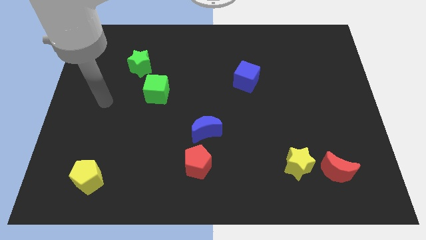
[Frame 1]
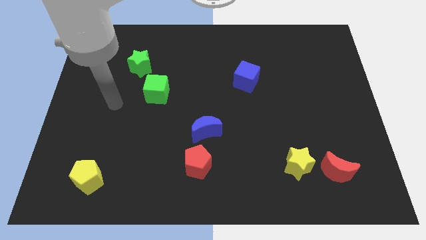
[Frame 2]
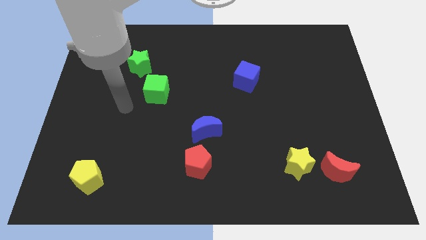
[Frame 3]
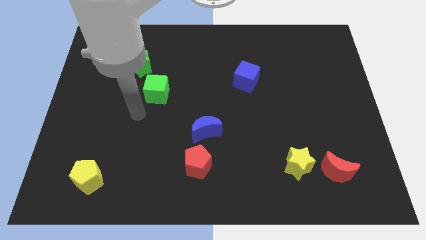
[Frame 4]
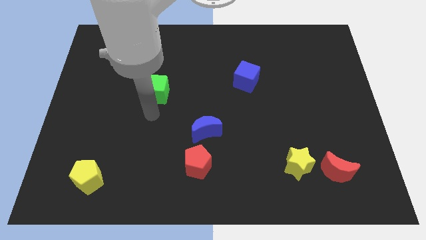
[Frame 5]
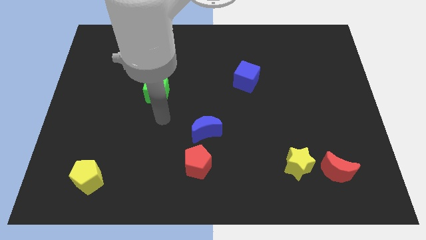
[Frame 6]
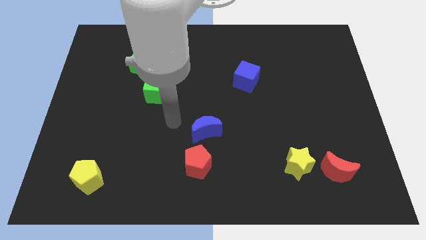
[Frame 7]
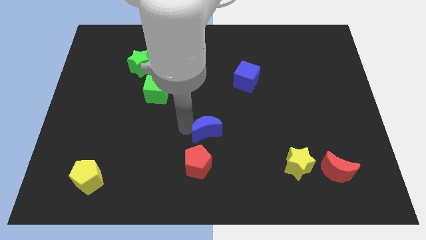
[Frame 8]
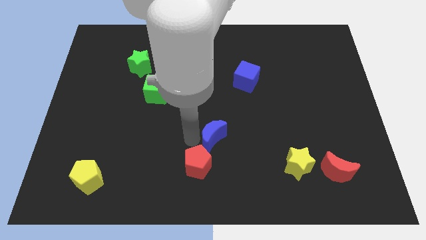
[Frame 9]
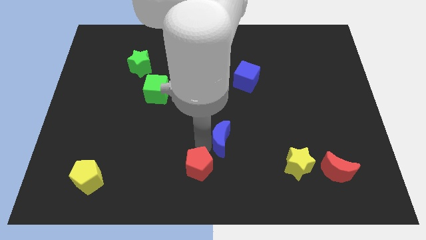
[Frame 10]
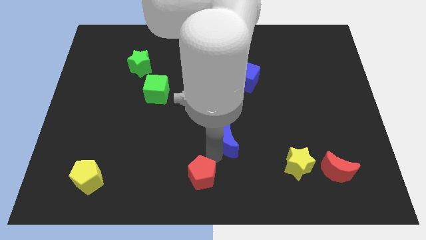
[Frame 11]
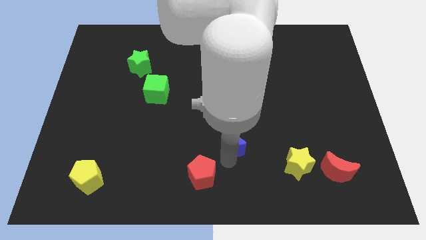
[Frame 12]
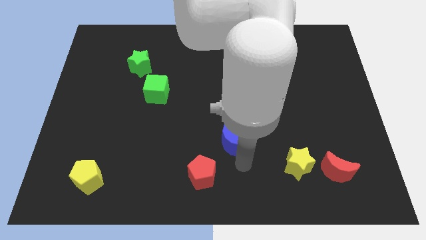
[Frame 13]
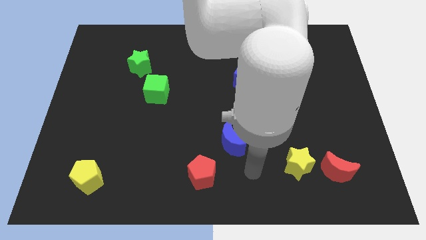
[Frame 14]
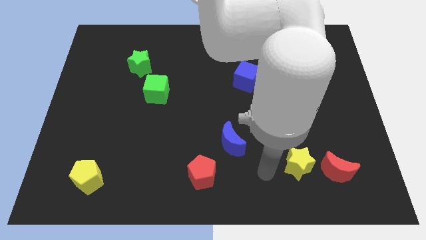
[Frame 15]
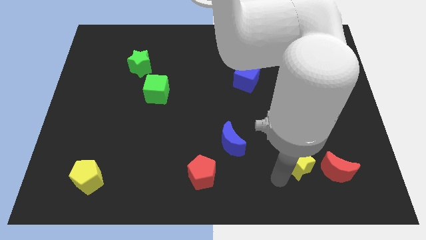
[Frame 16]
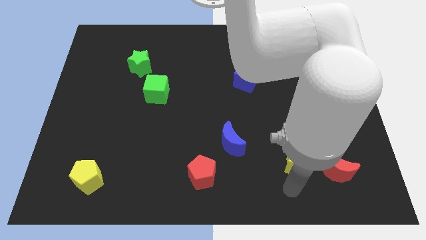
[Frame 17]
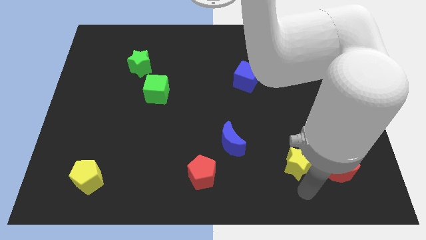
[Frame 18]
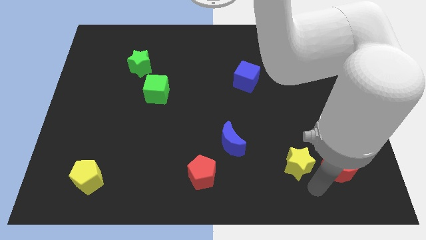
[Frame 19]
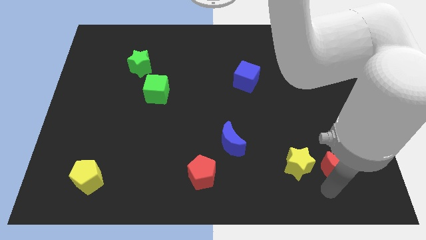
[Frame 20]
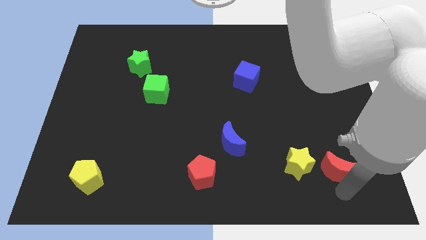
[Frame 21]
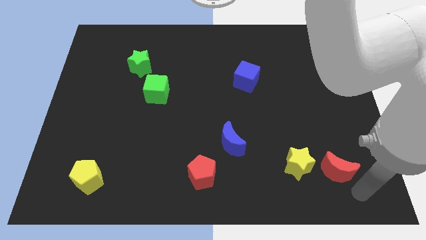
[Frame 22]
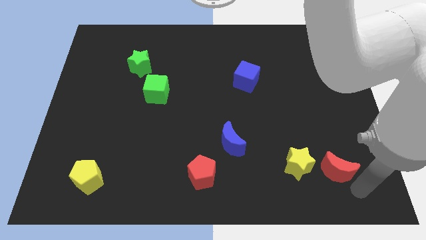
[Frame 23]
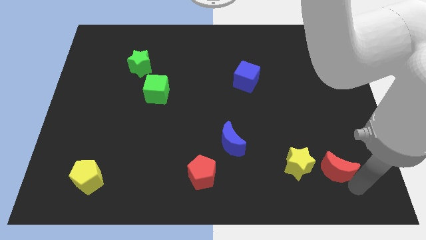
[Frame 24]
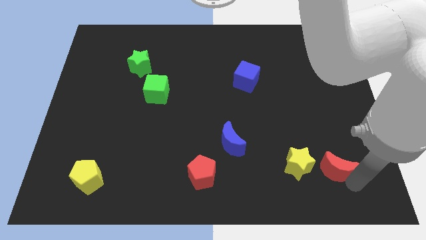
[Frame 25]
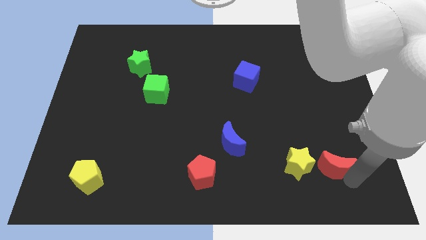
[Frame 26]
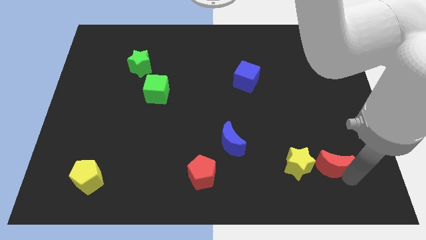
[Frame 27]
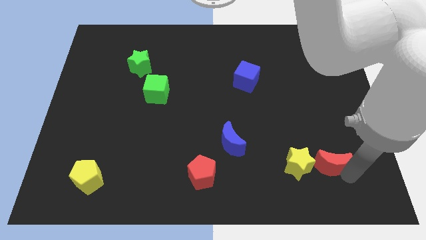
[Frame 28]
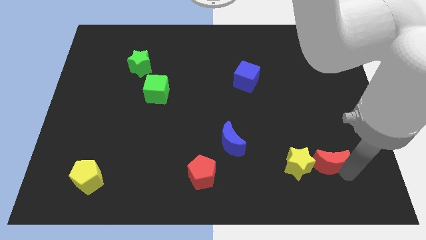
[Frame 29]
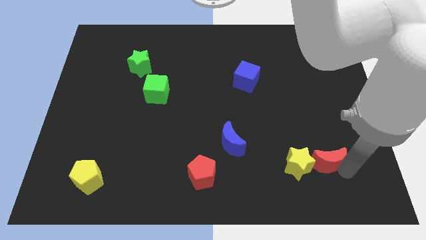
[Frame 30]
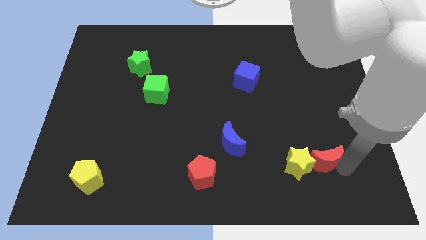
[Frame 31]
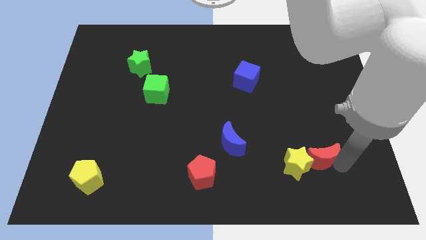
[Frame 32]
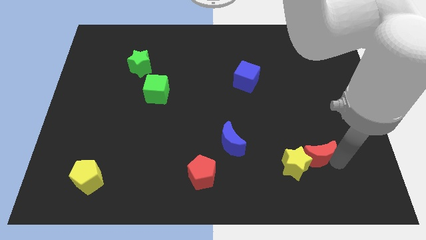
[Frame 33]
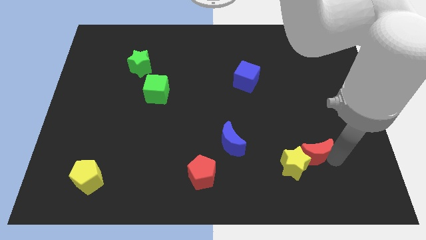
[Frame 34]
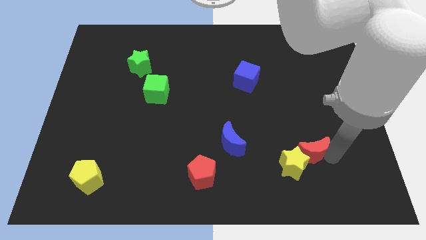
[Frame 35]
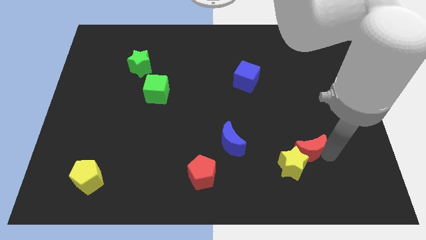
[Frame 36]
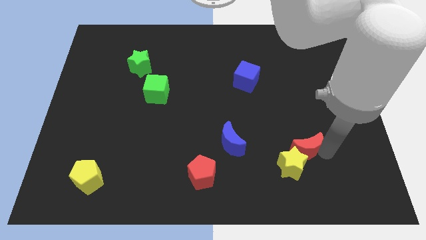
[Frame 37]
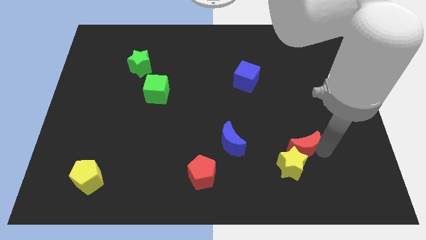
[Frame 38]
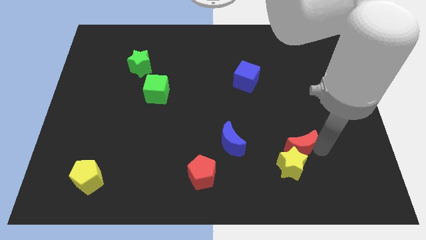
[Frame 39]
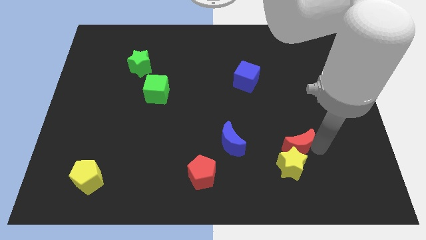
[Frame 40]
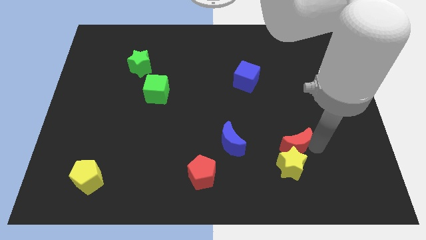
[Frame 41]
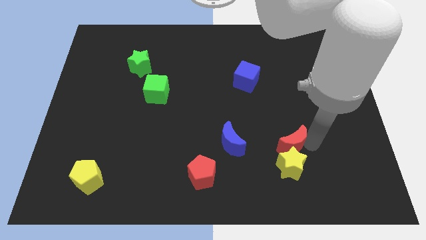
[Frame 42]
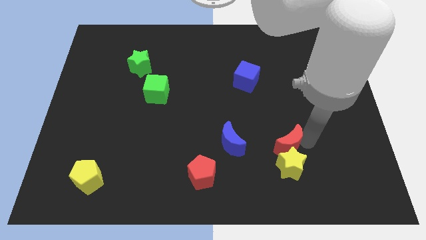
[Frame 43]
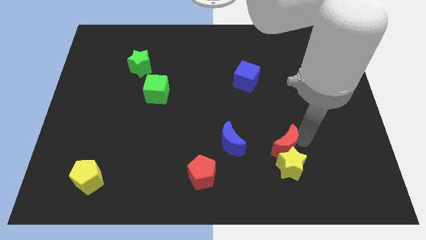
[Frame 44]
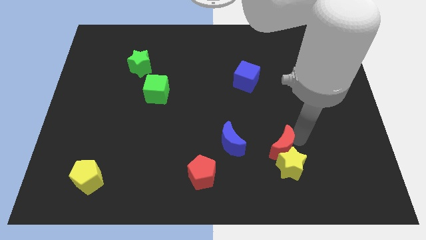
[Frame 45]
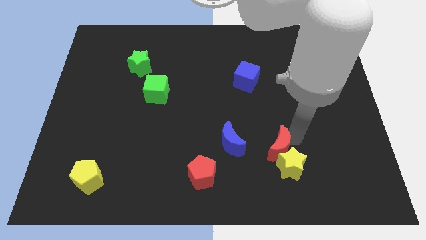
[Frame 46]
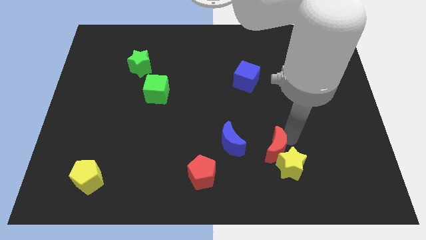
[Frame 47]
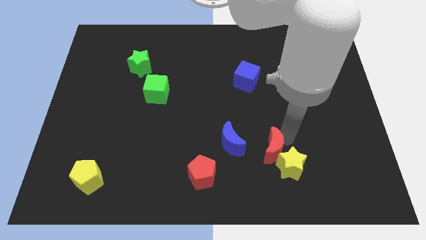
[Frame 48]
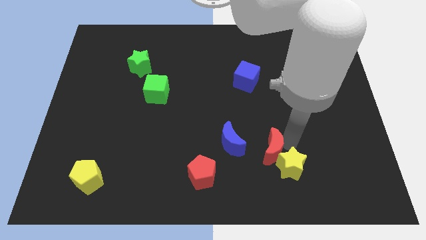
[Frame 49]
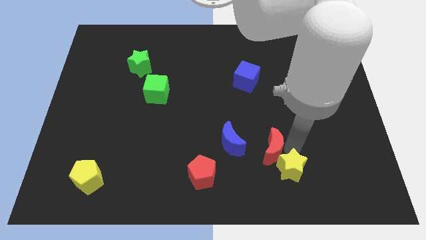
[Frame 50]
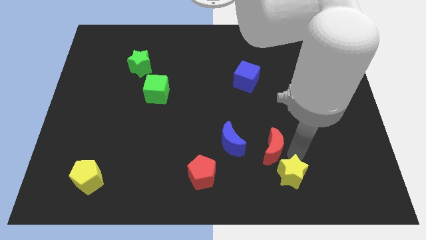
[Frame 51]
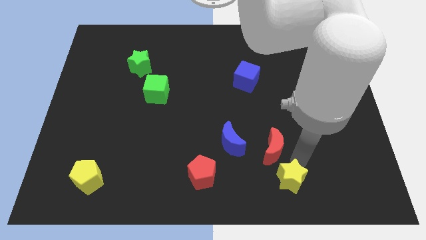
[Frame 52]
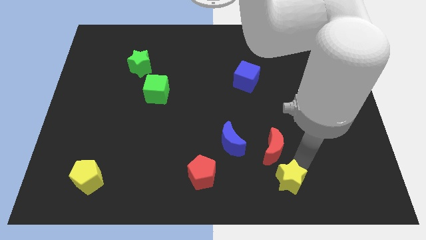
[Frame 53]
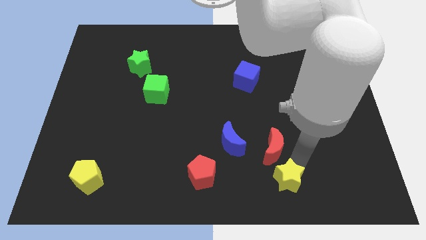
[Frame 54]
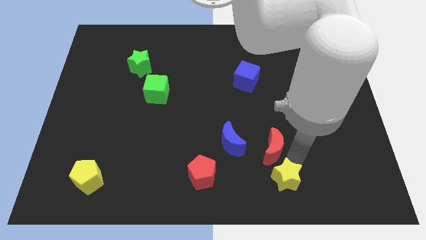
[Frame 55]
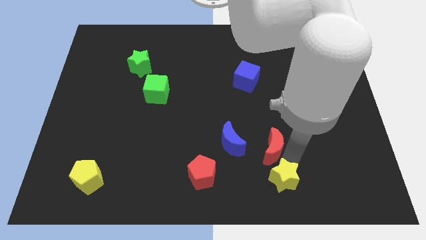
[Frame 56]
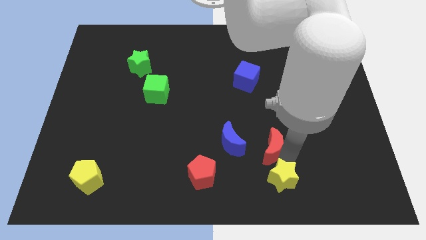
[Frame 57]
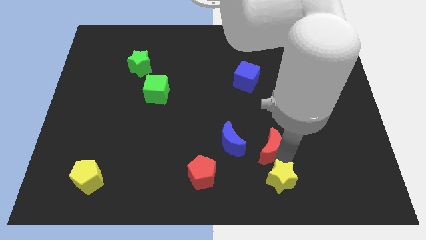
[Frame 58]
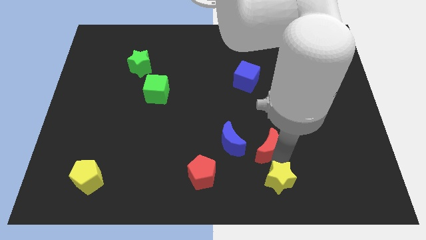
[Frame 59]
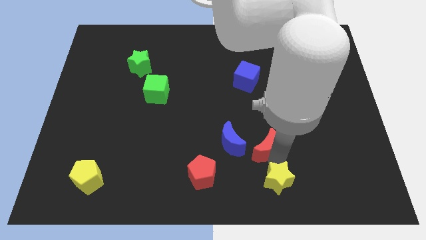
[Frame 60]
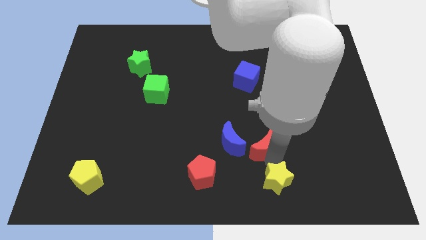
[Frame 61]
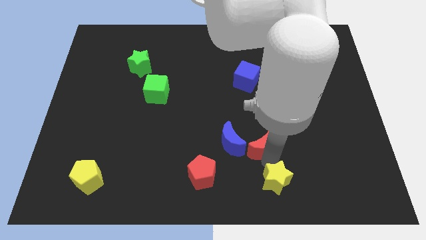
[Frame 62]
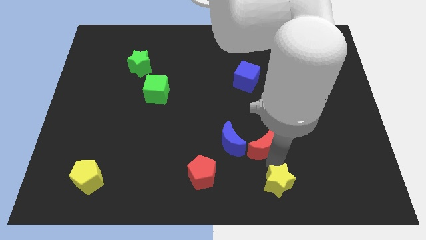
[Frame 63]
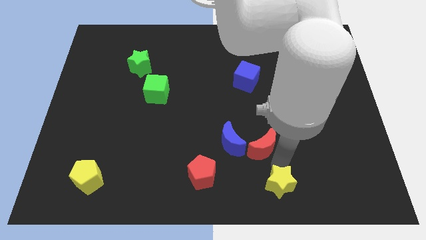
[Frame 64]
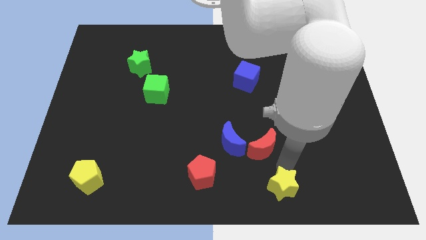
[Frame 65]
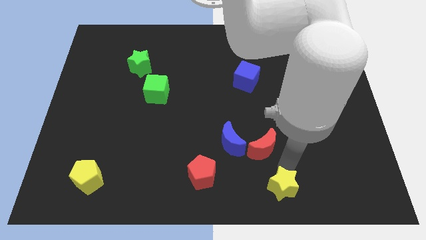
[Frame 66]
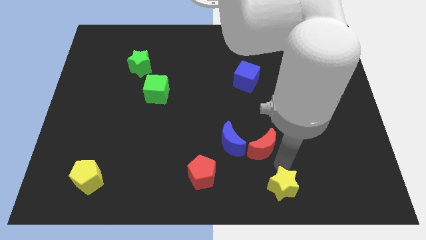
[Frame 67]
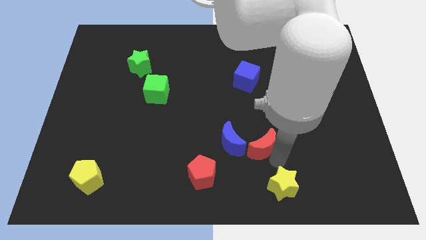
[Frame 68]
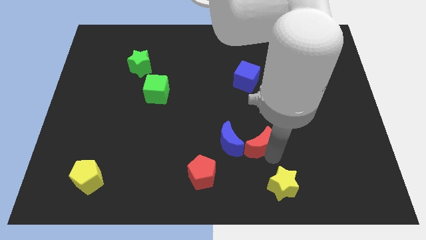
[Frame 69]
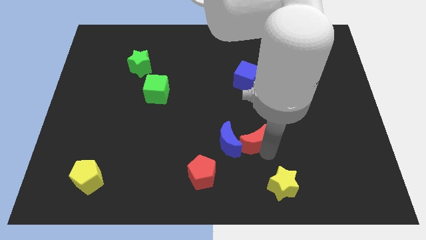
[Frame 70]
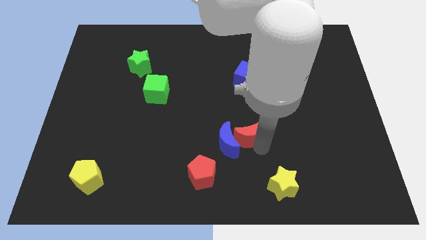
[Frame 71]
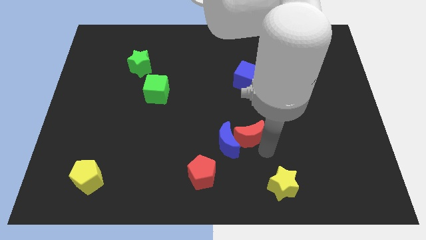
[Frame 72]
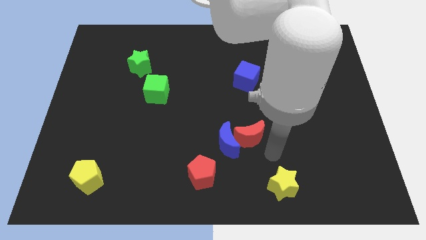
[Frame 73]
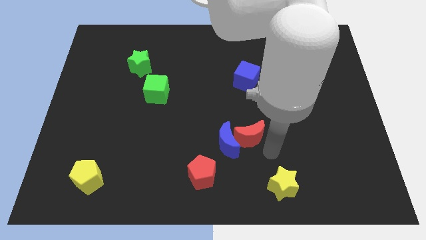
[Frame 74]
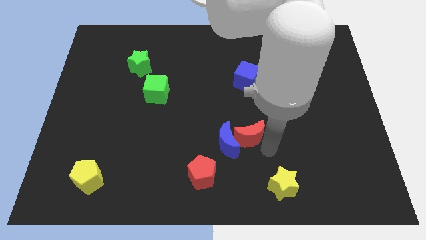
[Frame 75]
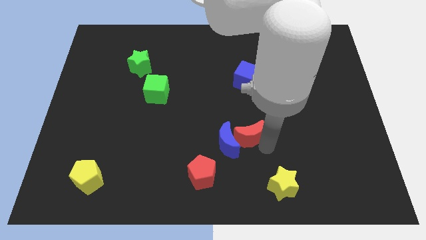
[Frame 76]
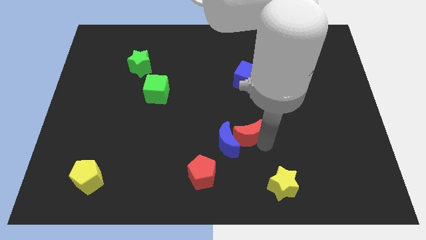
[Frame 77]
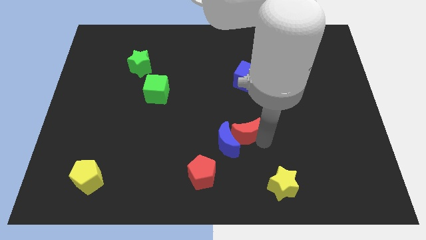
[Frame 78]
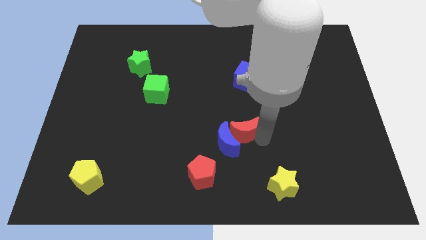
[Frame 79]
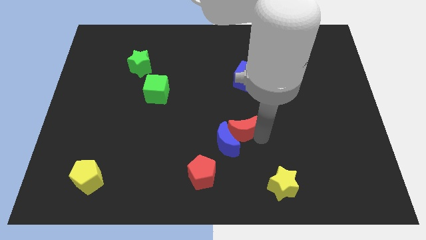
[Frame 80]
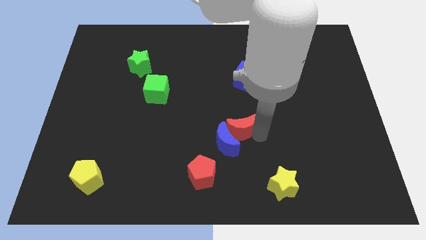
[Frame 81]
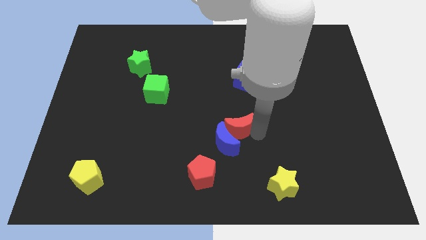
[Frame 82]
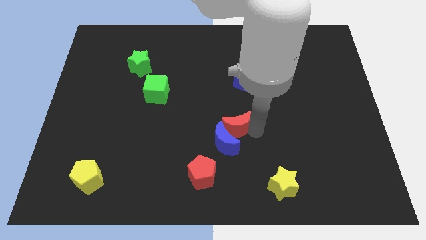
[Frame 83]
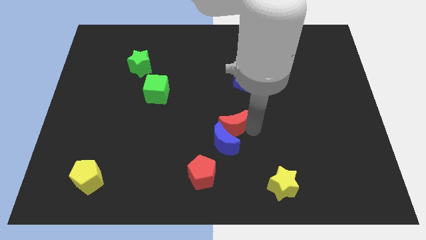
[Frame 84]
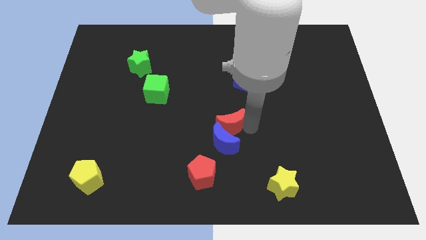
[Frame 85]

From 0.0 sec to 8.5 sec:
move the red moon to the top left of the blue moon
